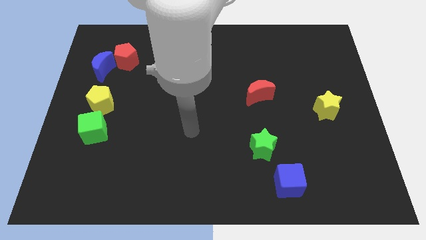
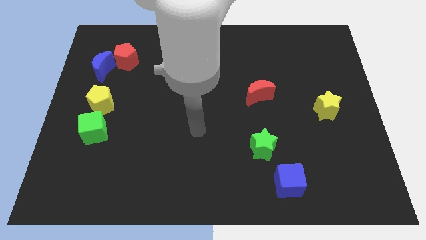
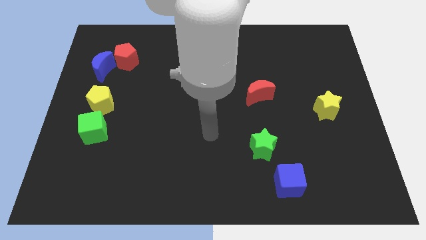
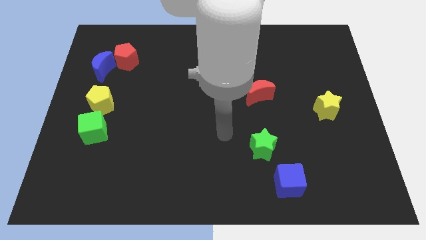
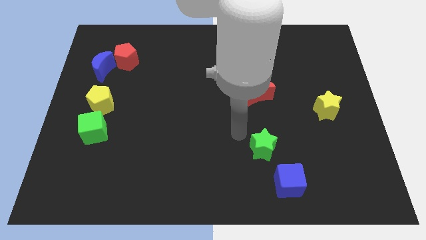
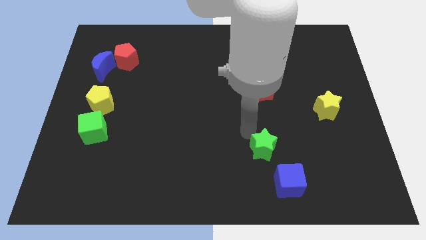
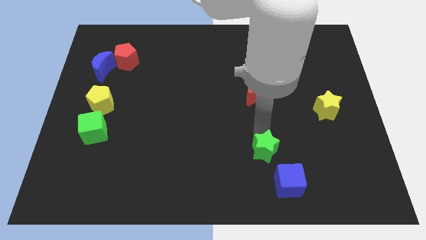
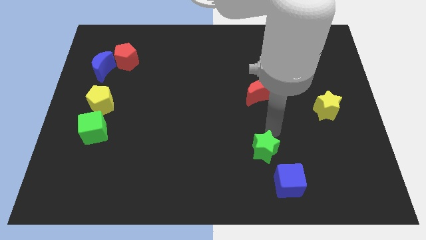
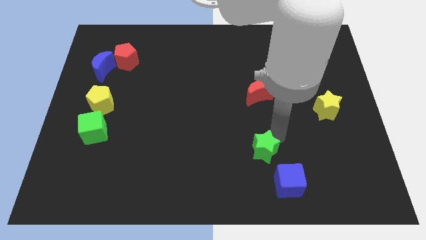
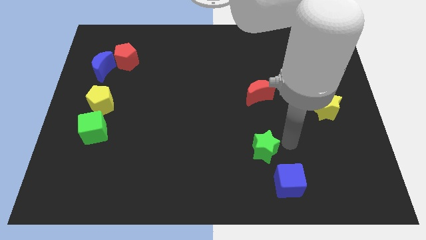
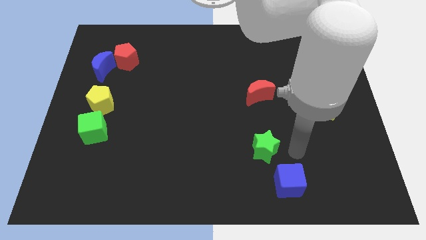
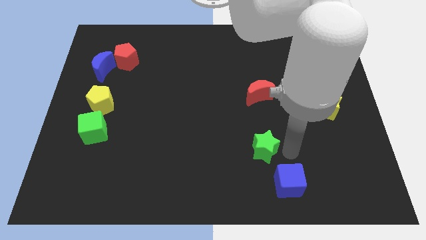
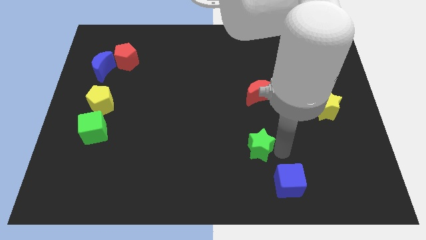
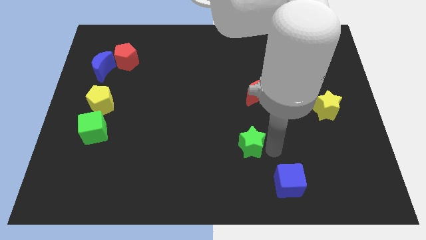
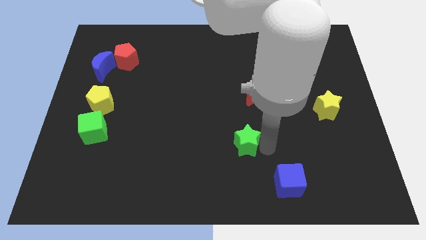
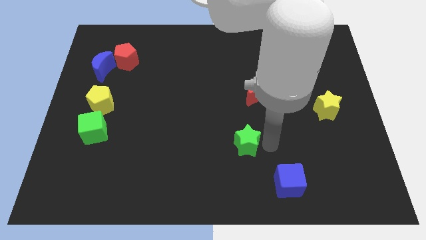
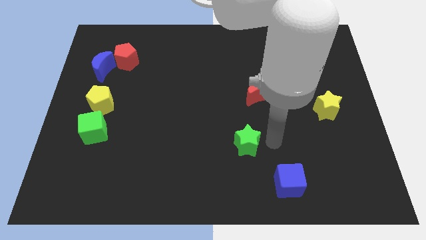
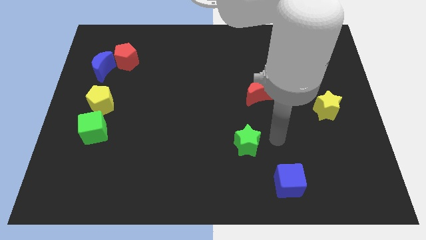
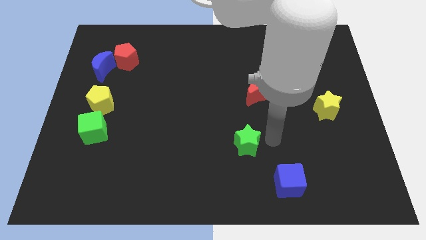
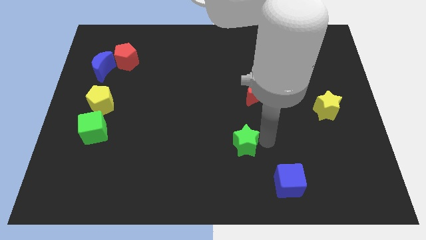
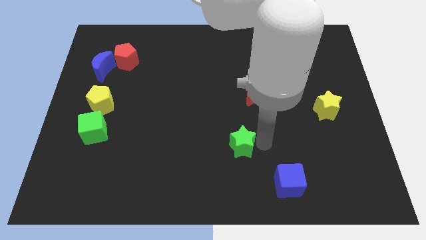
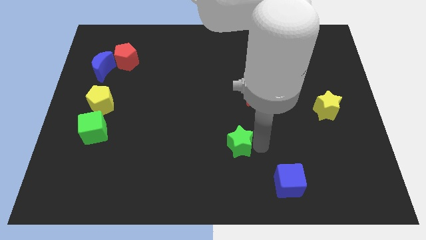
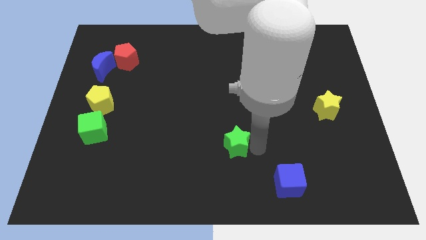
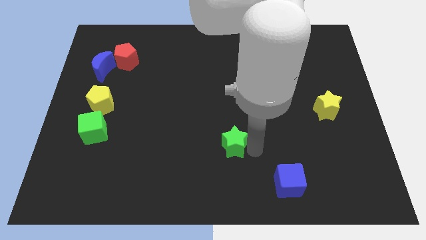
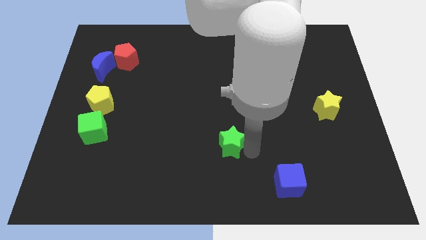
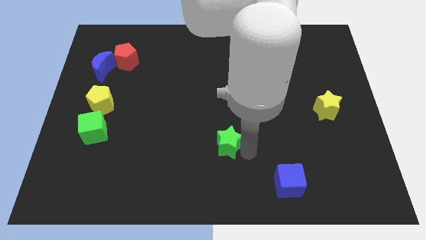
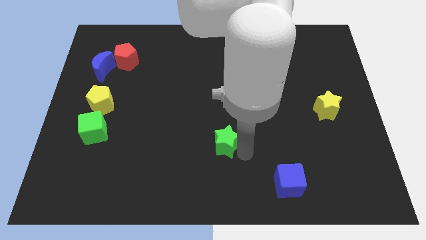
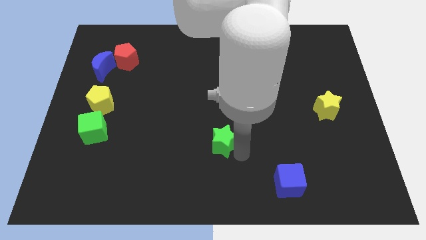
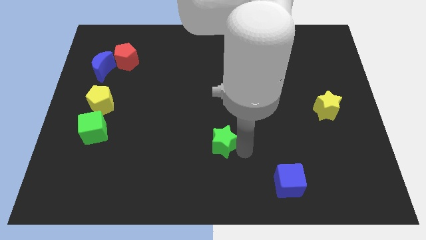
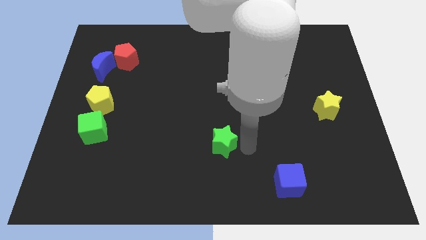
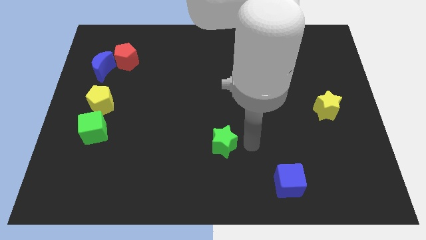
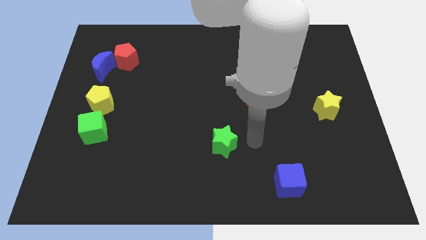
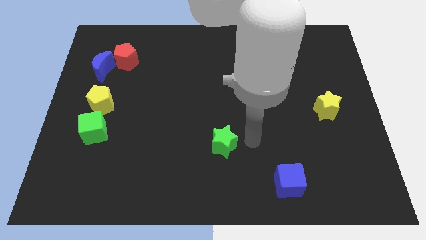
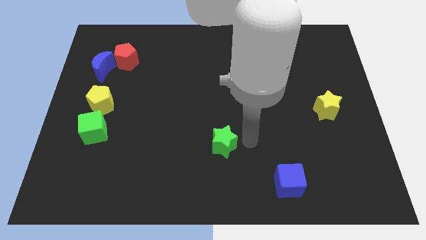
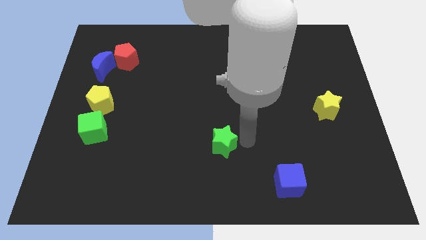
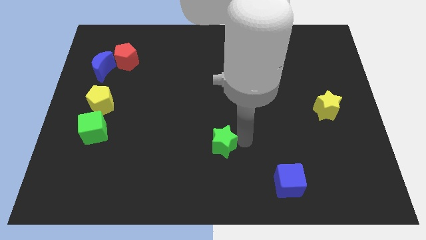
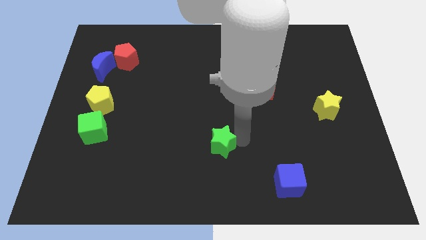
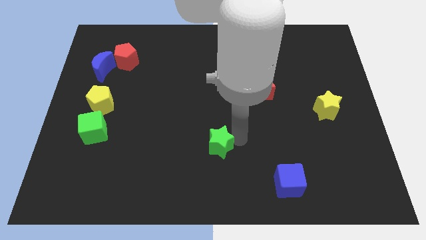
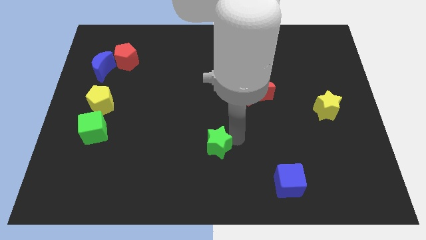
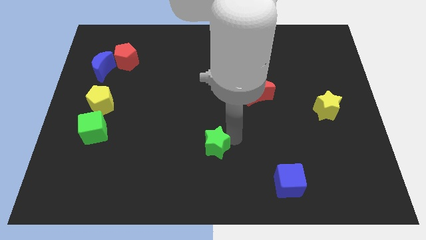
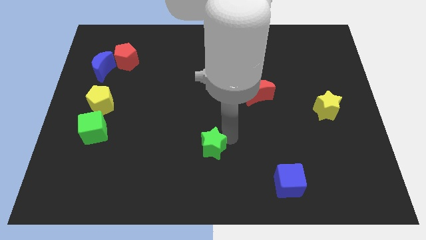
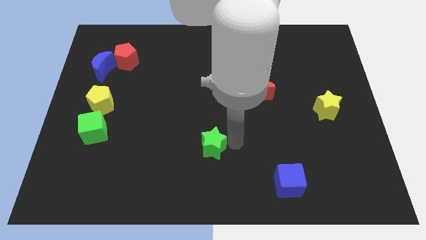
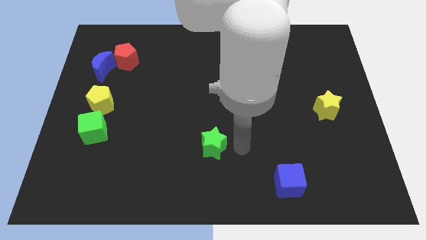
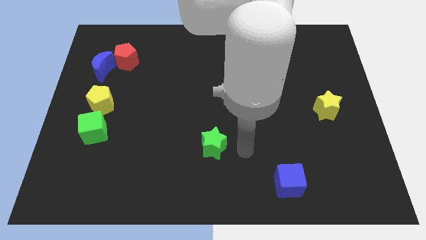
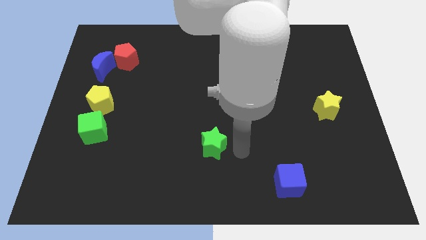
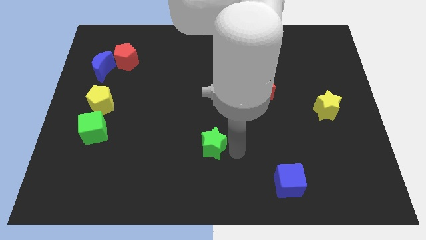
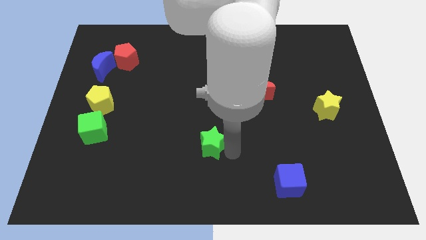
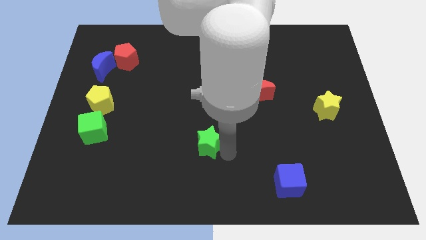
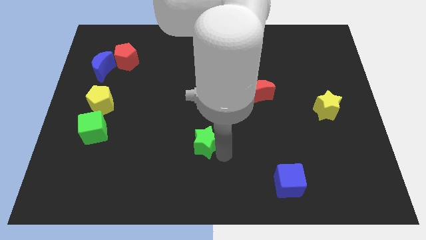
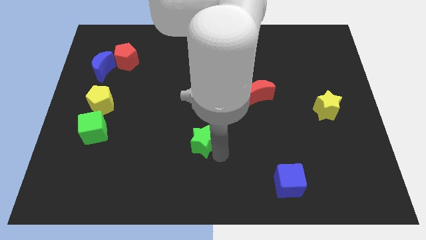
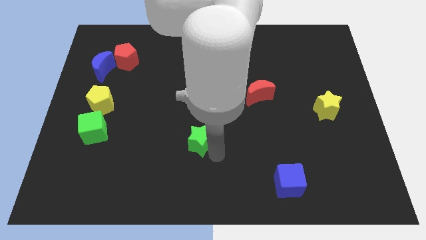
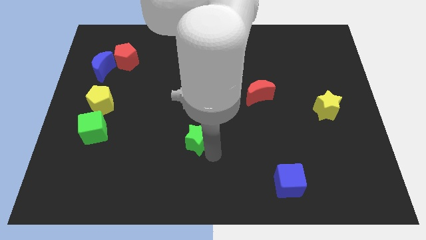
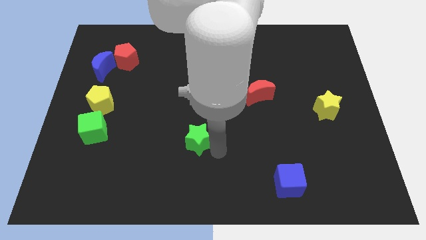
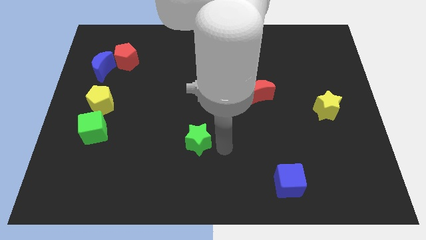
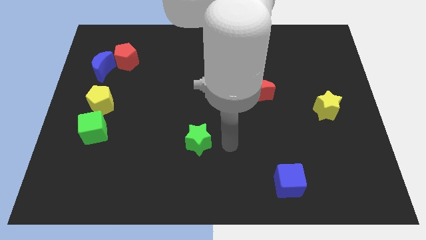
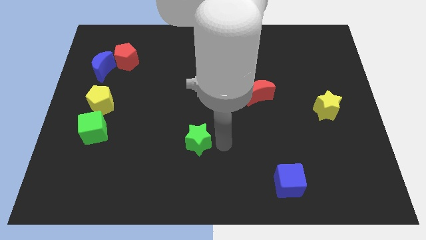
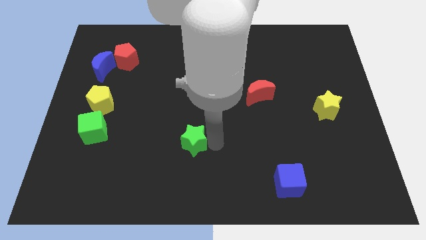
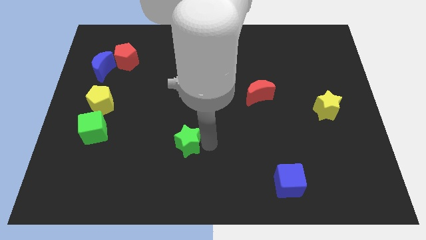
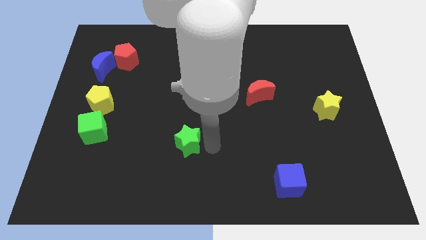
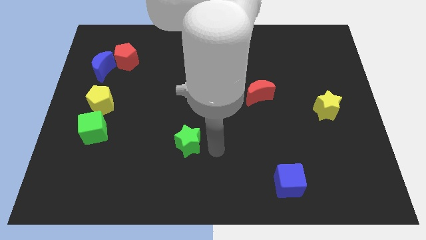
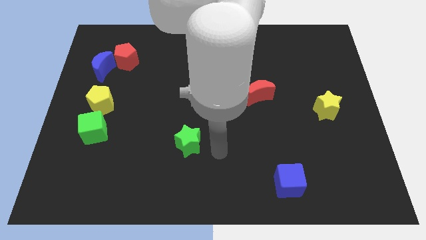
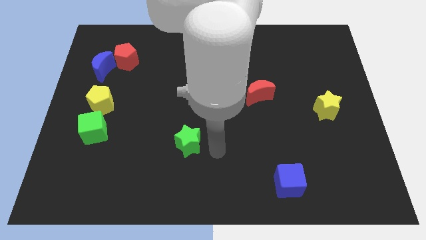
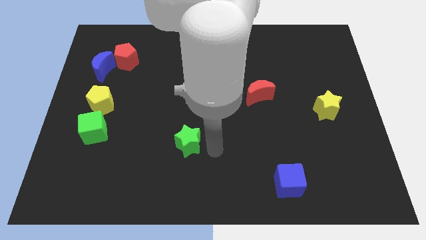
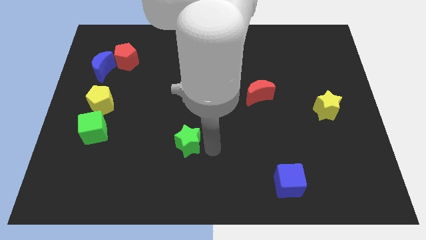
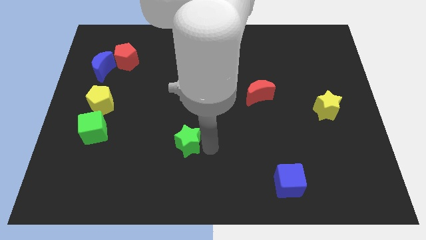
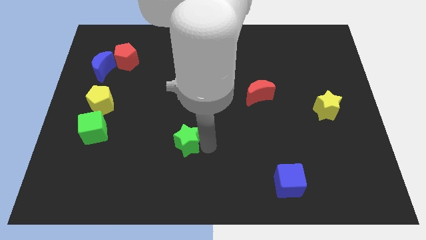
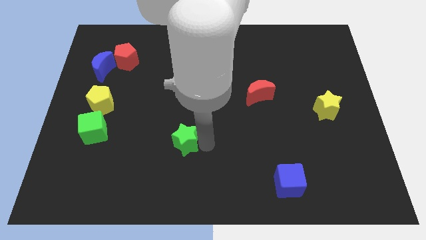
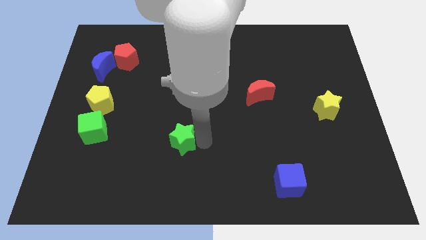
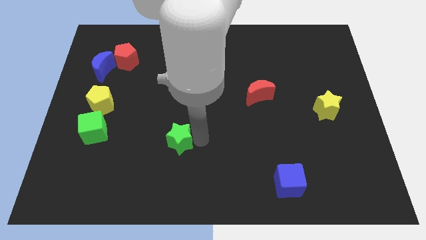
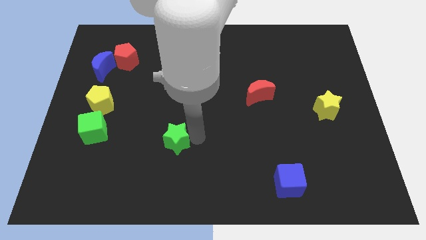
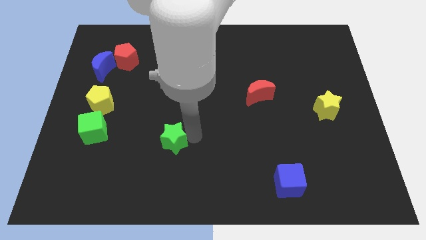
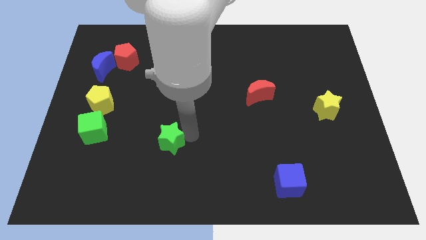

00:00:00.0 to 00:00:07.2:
move the green star left

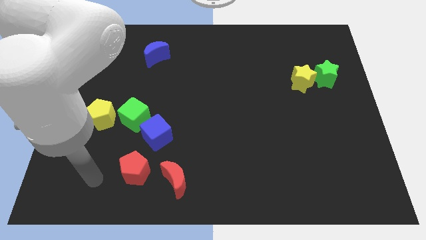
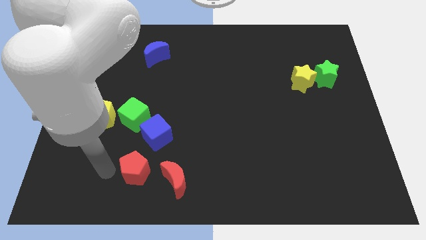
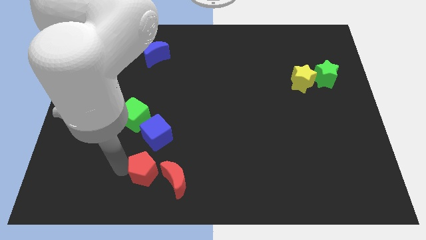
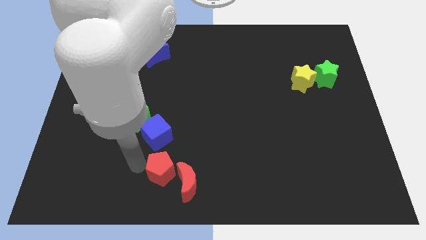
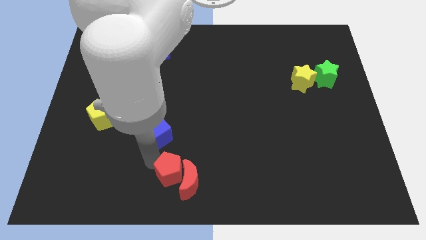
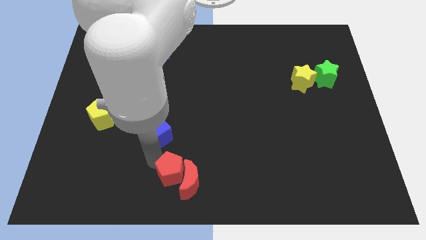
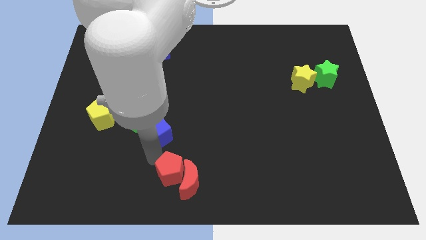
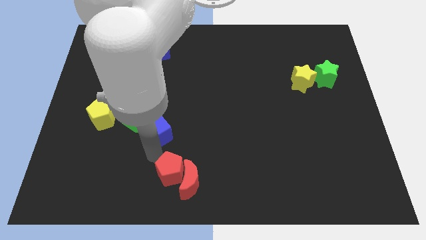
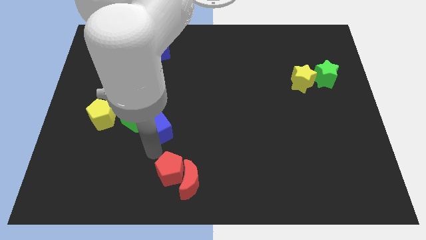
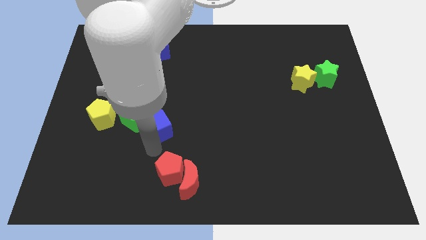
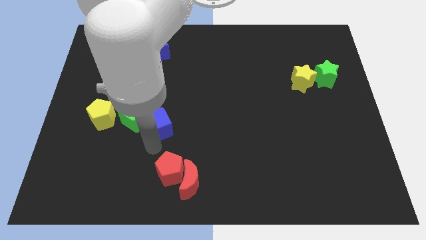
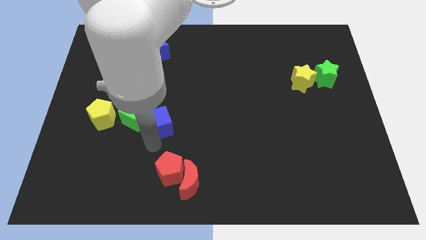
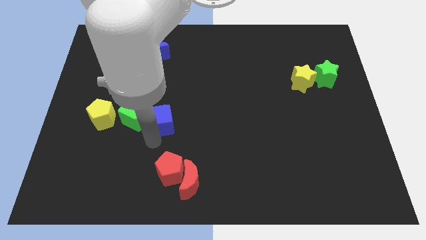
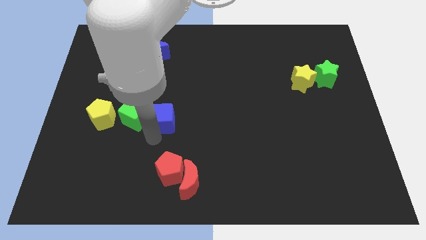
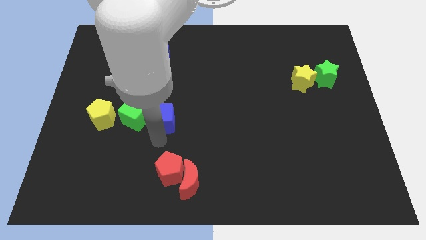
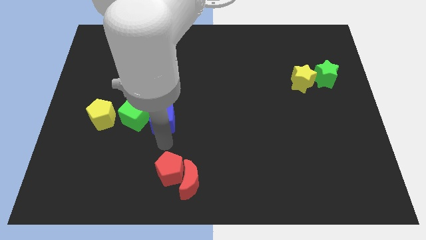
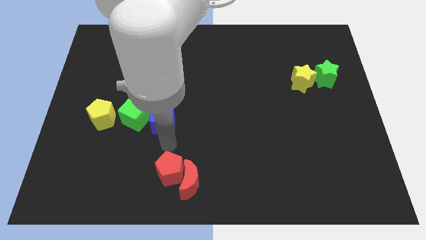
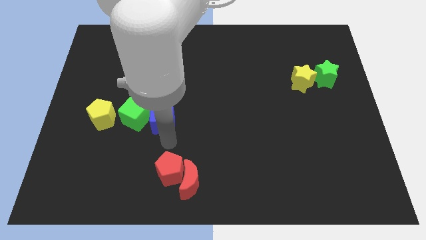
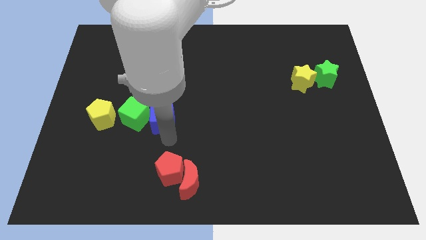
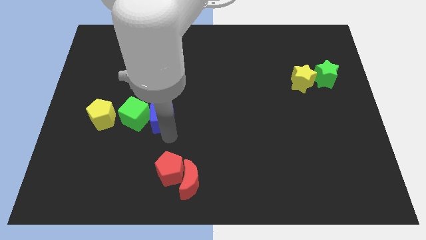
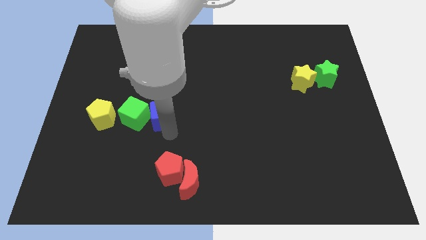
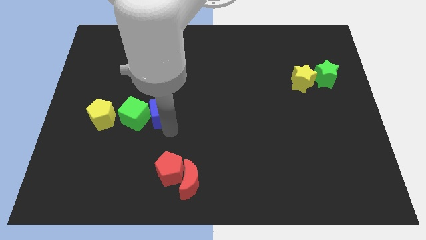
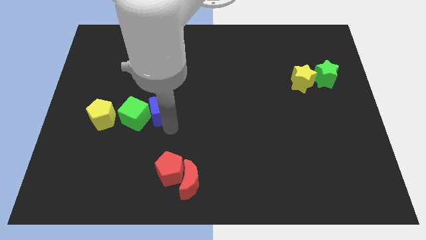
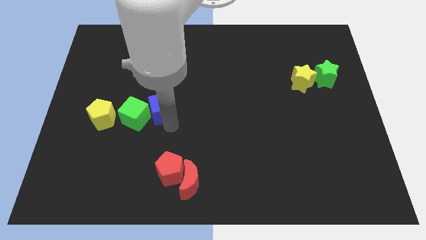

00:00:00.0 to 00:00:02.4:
move the blue cube somewhat up
